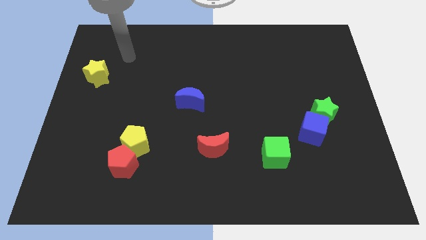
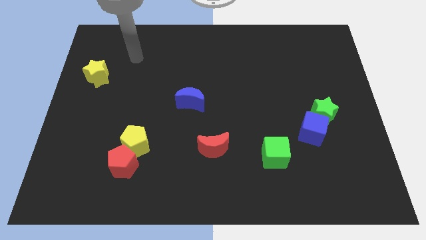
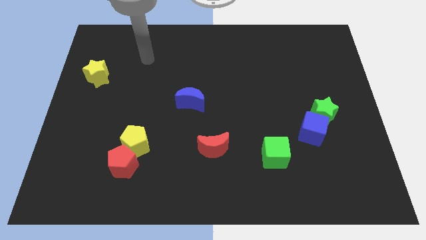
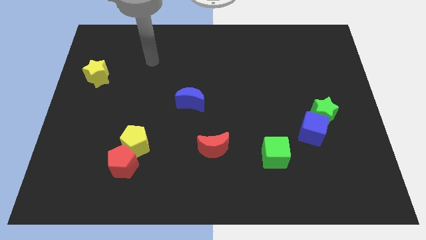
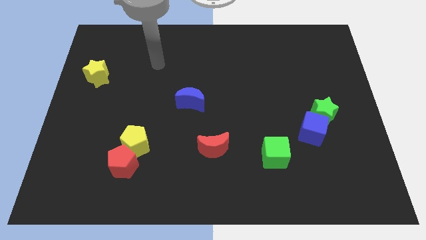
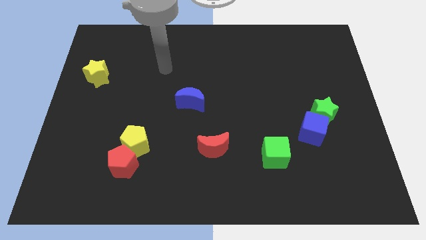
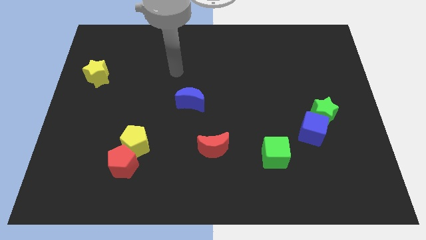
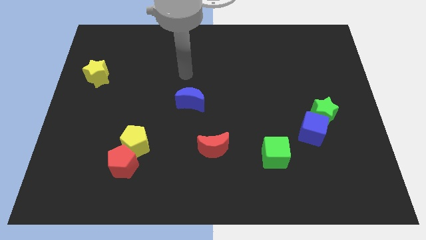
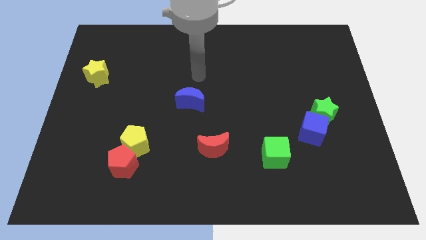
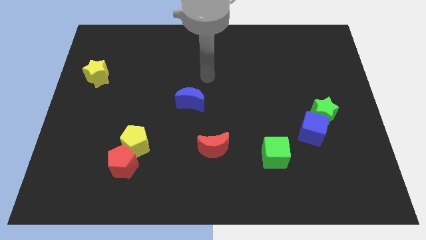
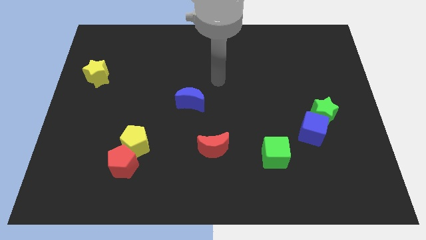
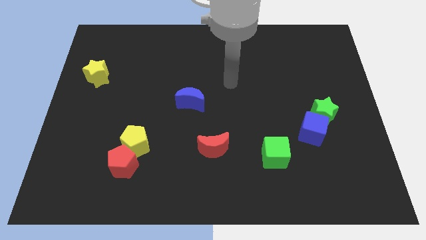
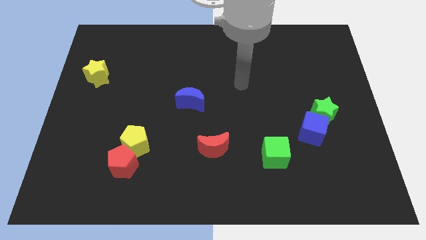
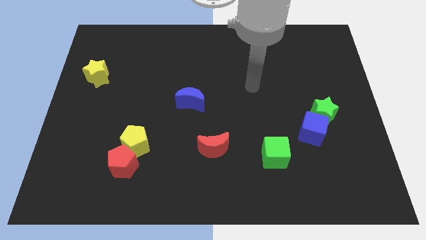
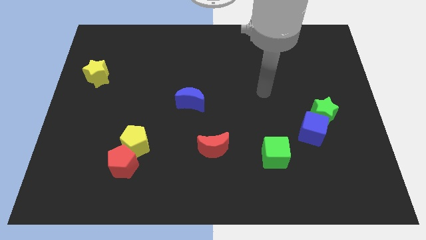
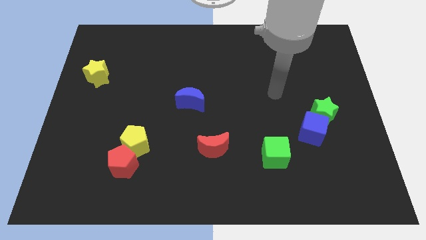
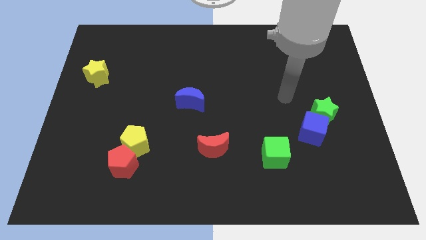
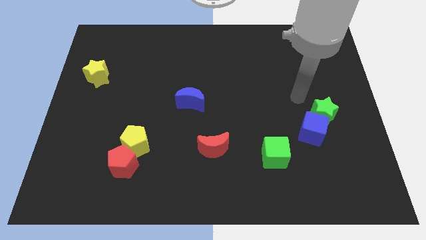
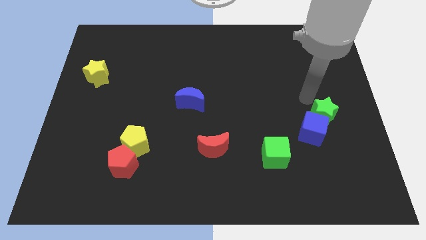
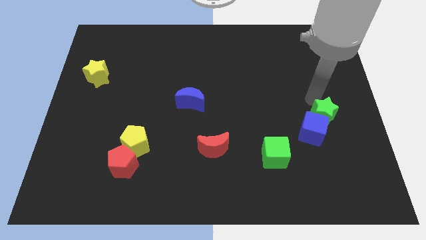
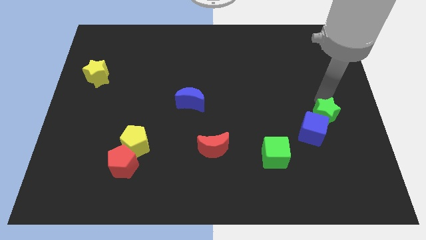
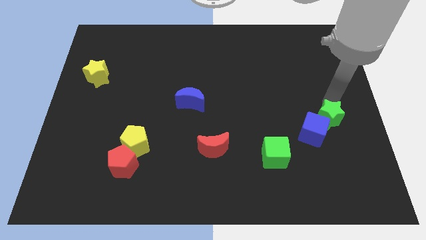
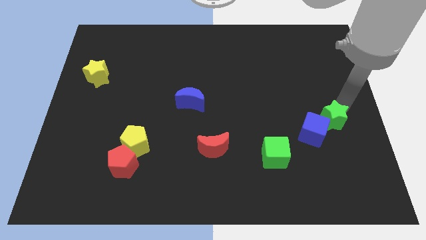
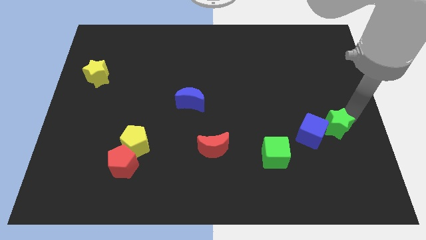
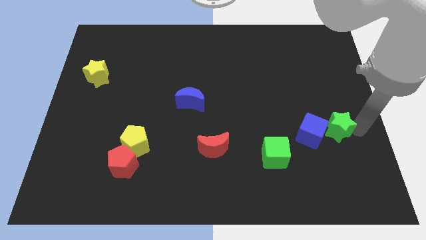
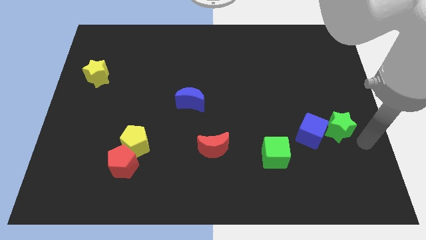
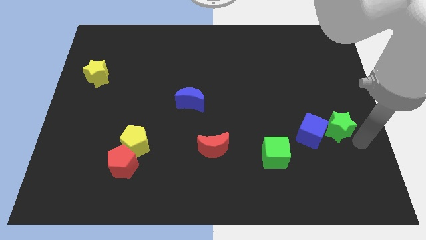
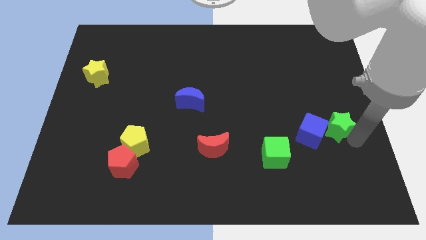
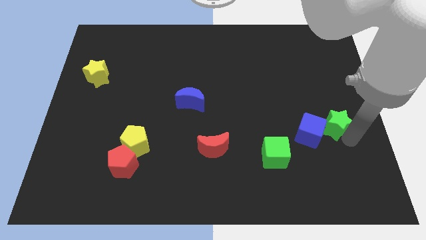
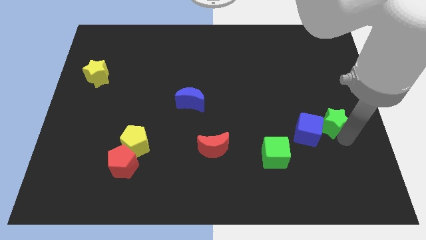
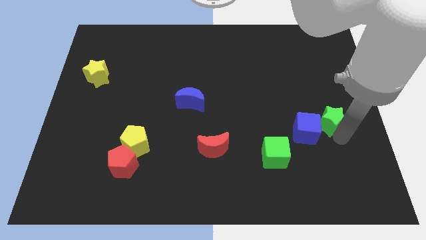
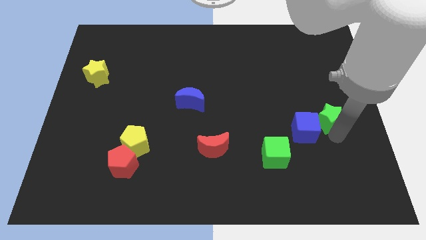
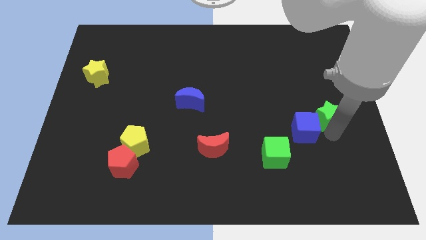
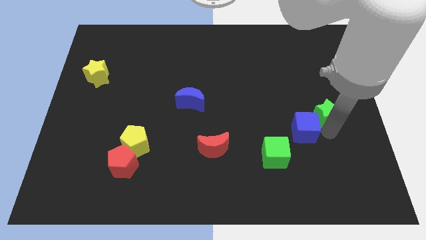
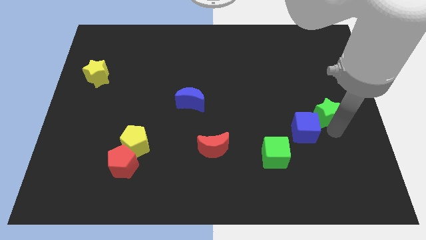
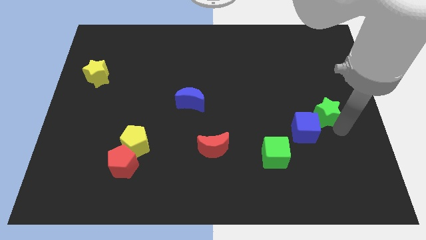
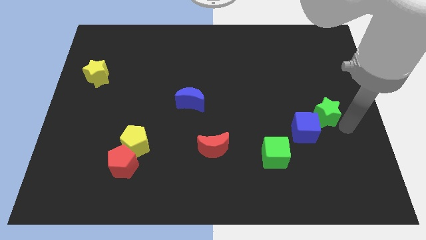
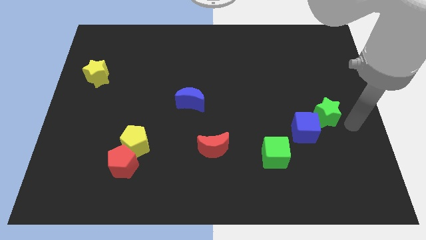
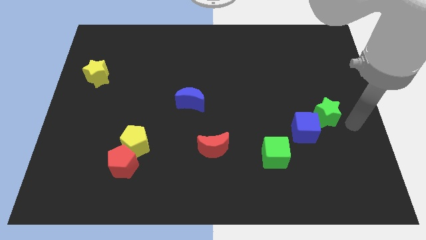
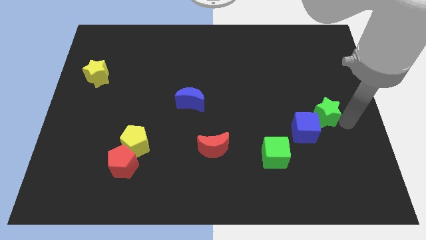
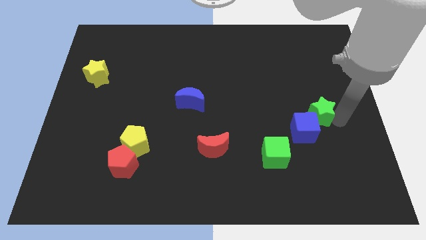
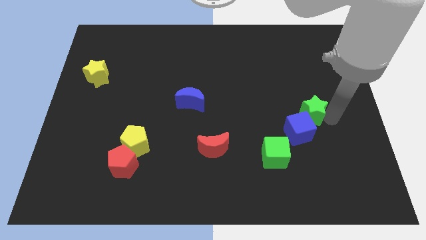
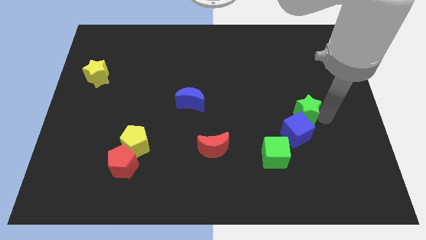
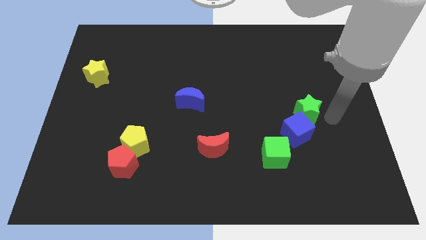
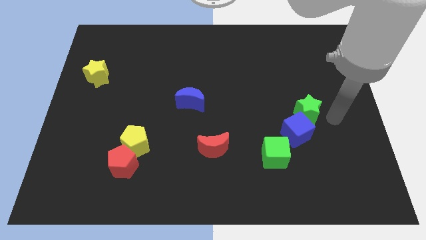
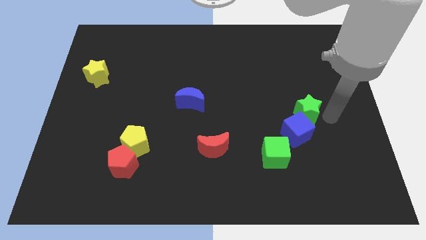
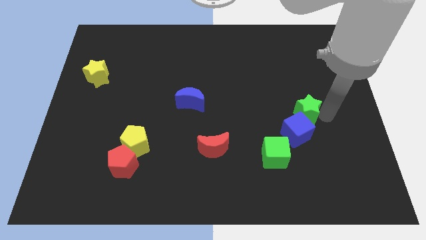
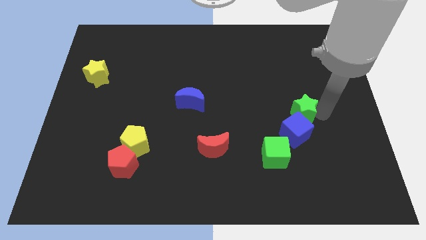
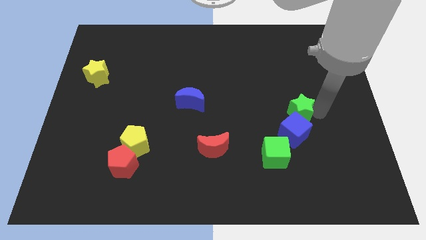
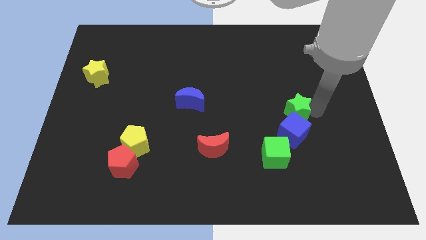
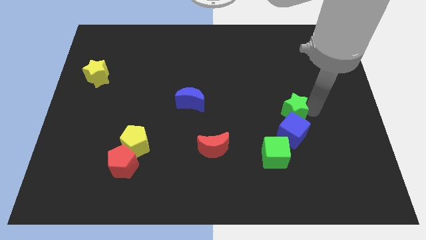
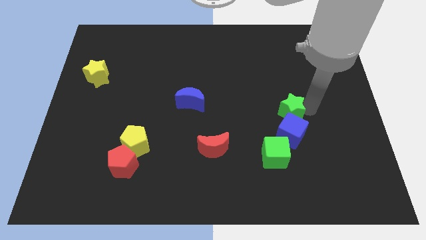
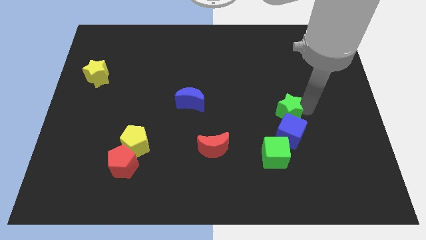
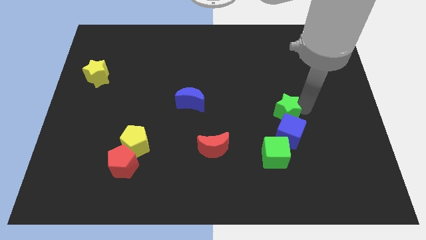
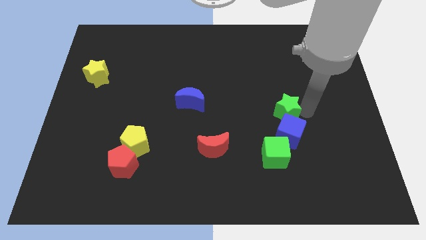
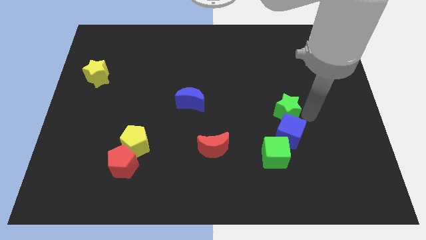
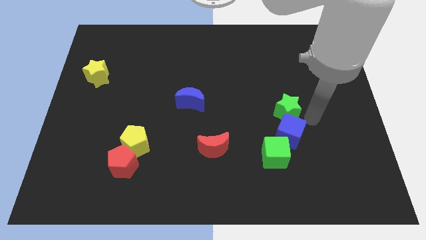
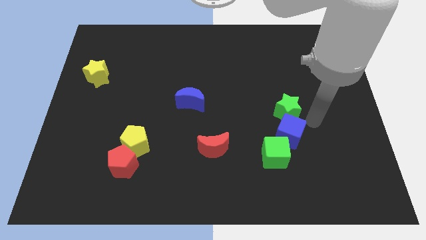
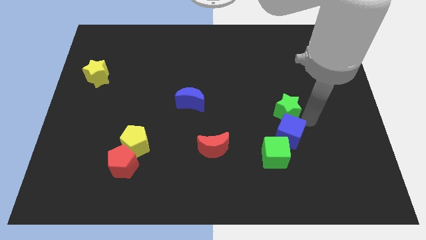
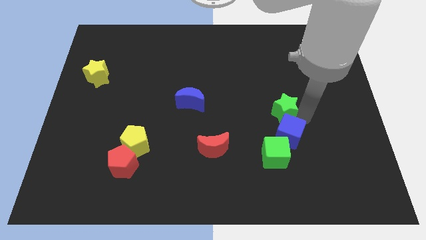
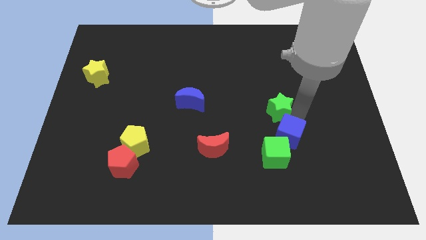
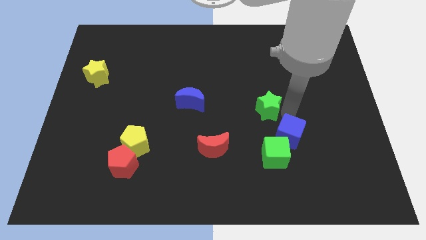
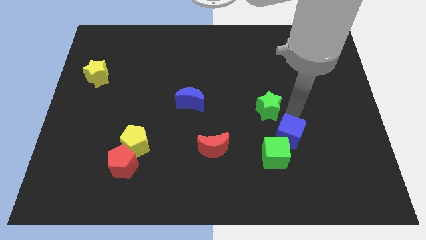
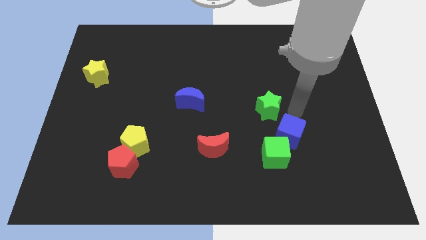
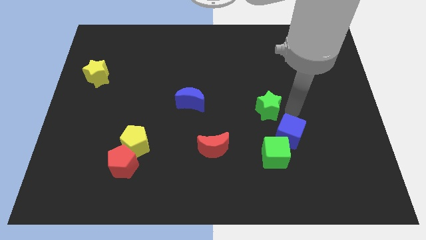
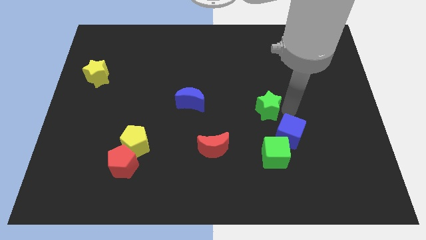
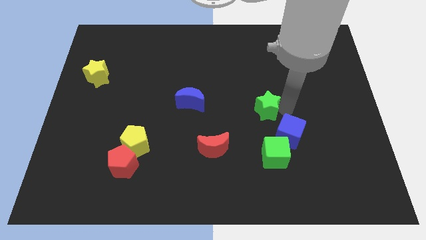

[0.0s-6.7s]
slide the green star to the center of the board

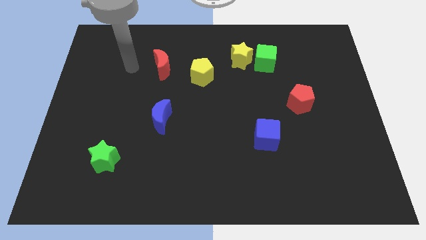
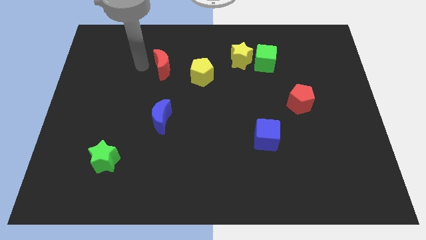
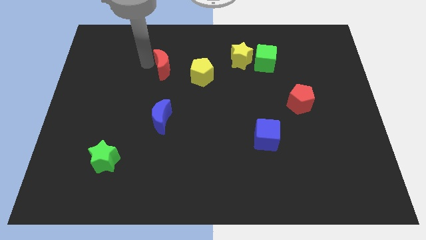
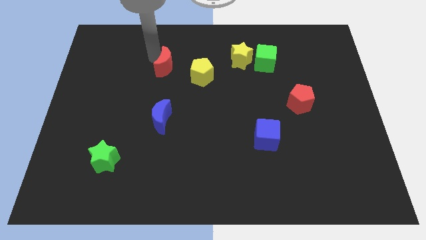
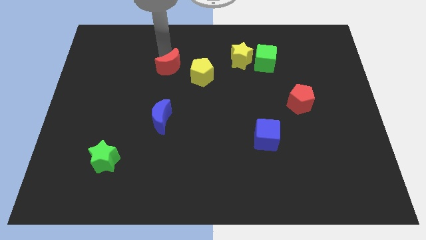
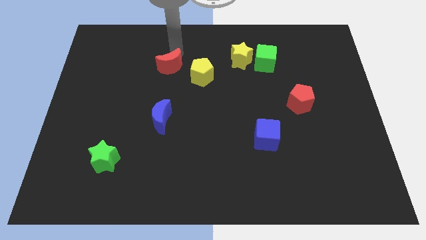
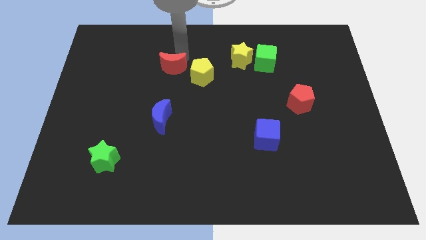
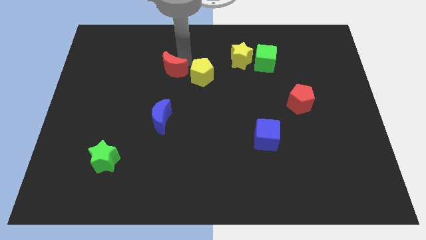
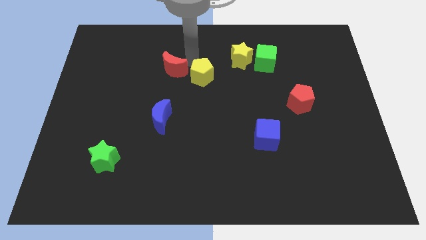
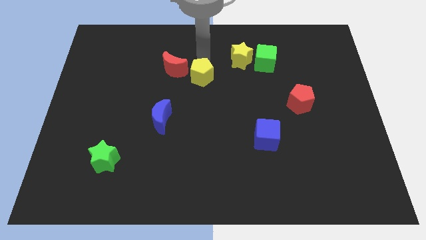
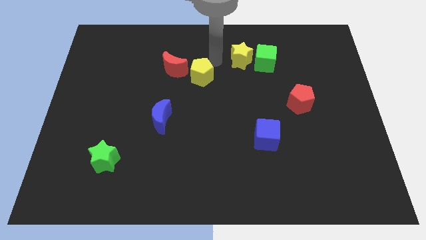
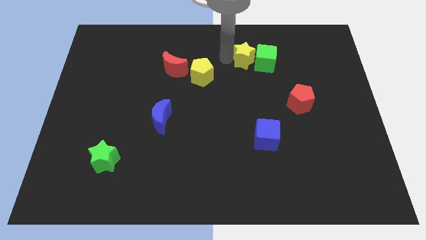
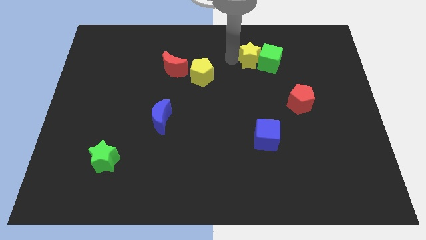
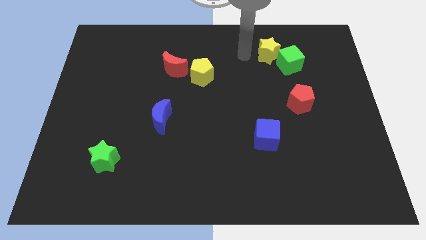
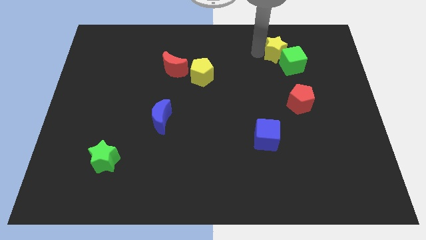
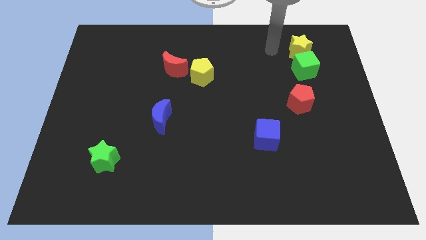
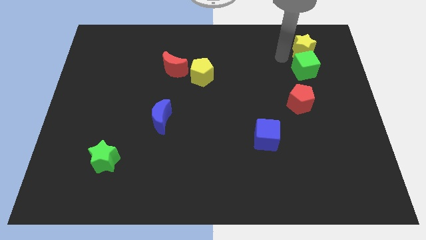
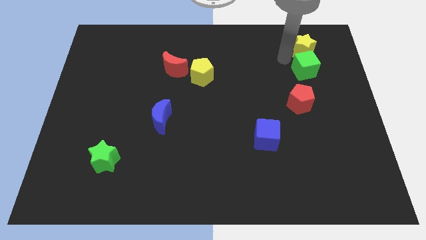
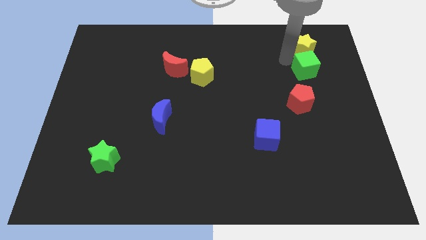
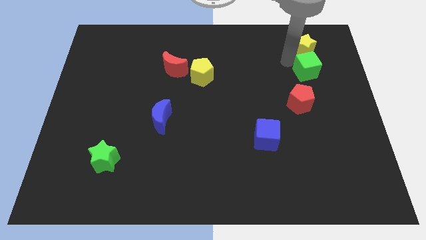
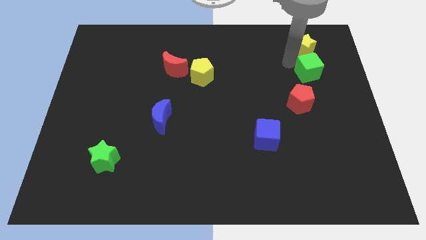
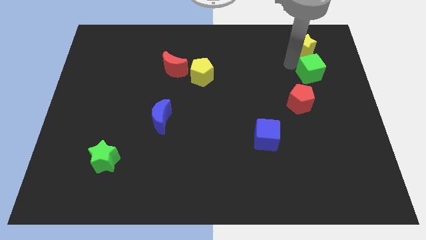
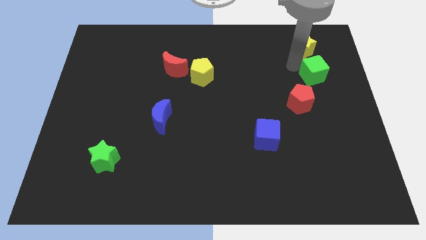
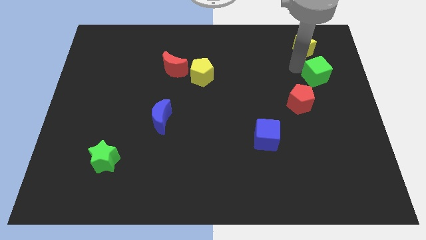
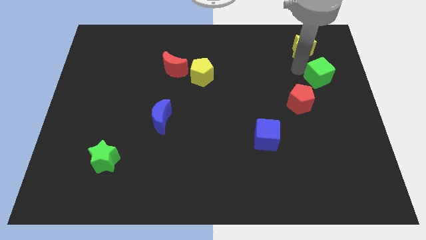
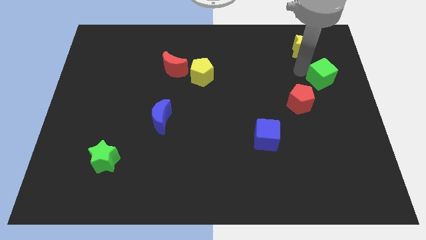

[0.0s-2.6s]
slide the green cube to the right side of the board
